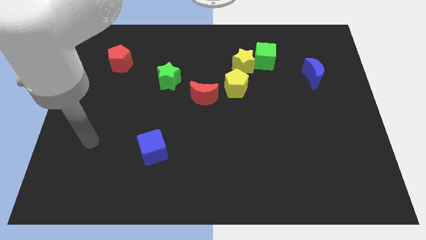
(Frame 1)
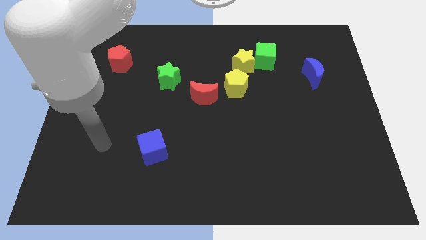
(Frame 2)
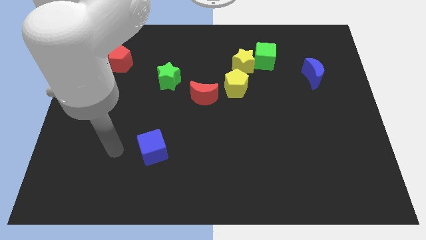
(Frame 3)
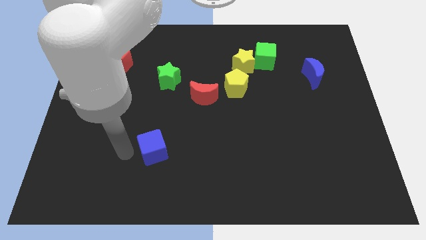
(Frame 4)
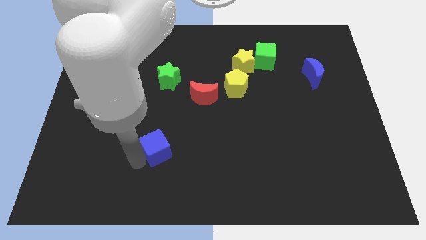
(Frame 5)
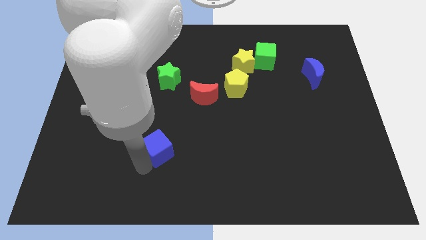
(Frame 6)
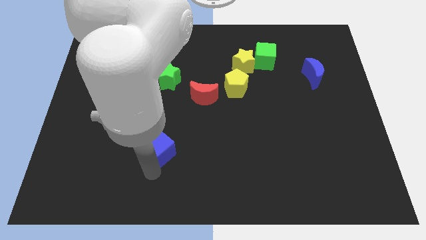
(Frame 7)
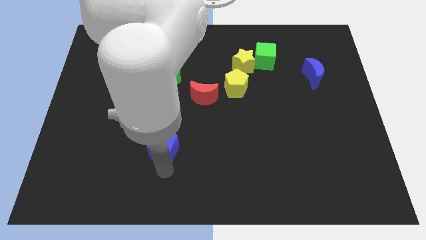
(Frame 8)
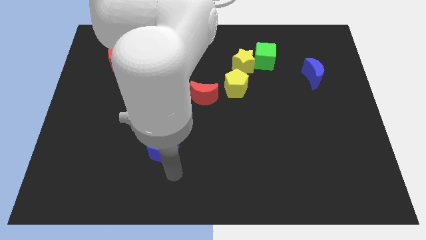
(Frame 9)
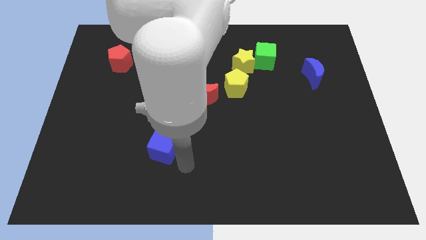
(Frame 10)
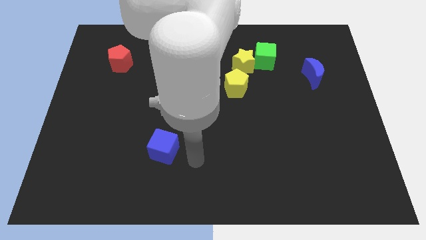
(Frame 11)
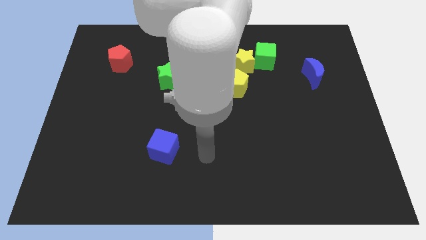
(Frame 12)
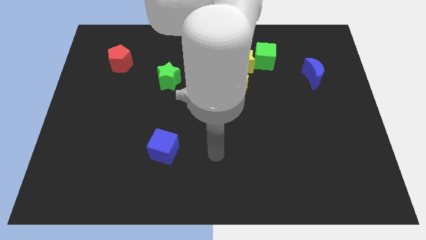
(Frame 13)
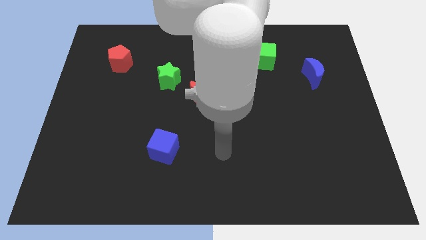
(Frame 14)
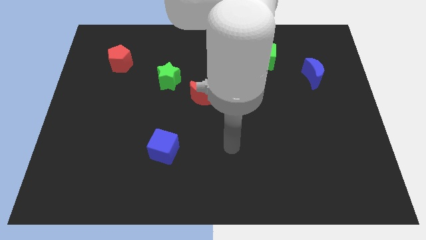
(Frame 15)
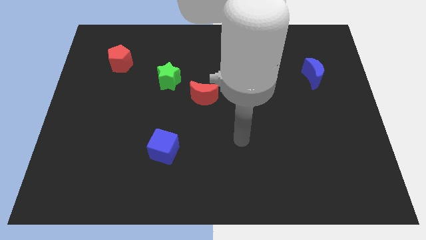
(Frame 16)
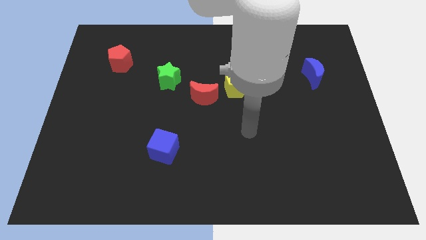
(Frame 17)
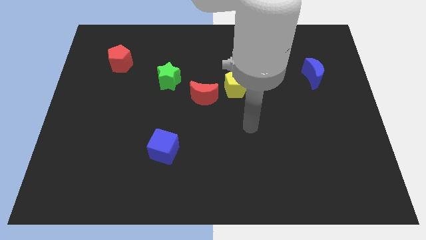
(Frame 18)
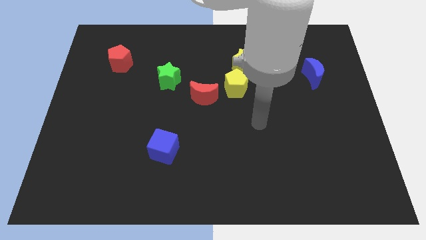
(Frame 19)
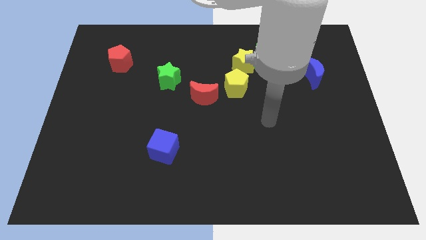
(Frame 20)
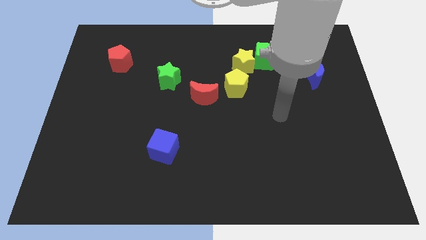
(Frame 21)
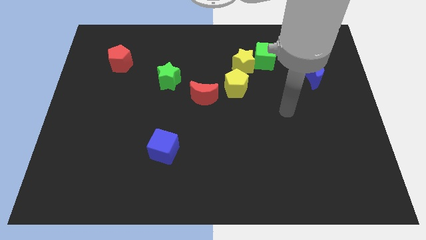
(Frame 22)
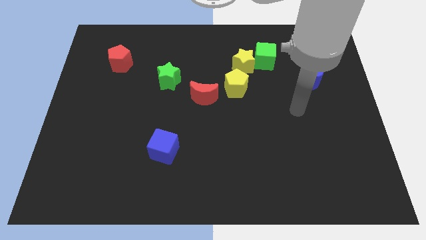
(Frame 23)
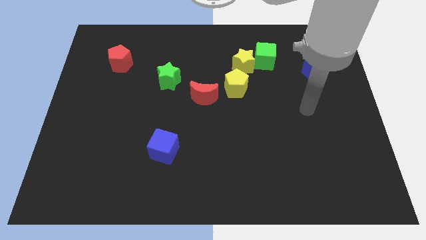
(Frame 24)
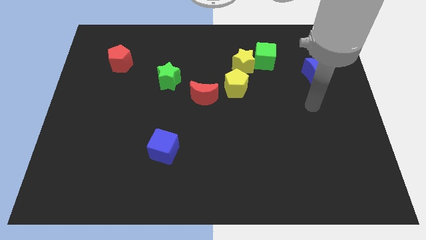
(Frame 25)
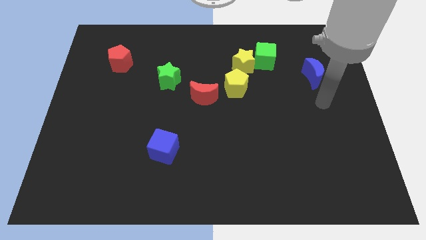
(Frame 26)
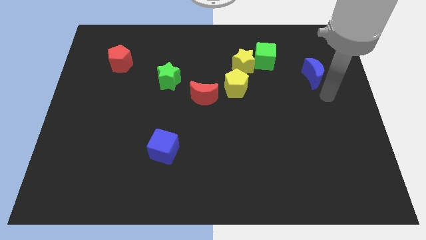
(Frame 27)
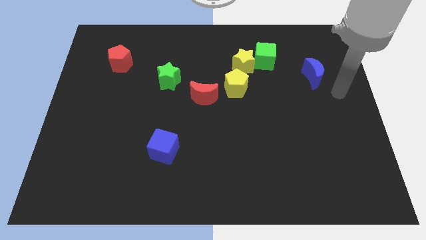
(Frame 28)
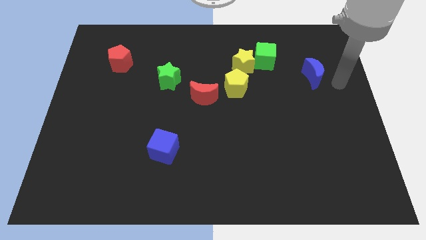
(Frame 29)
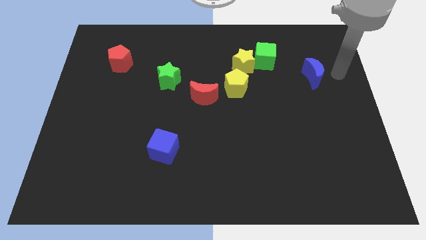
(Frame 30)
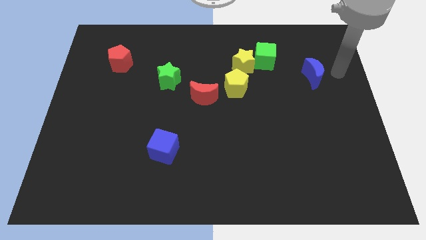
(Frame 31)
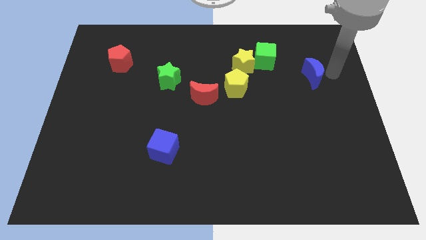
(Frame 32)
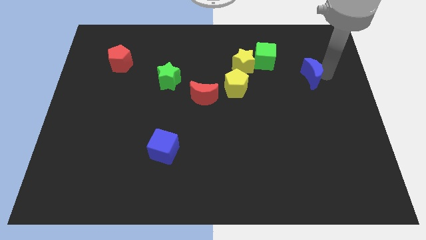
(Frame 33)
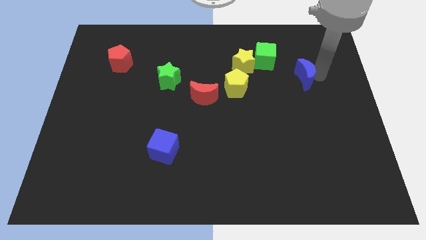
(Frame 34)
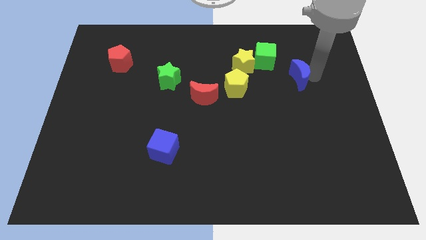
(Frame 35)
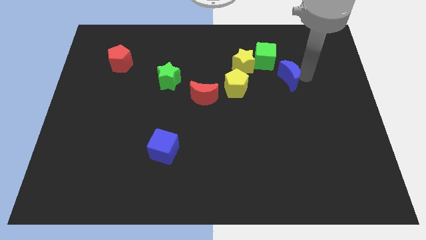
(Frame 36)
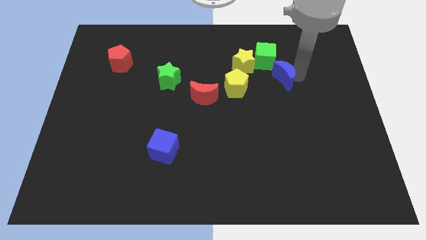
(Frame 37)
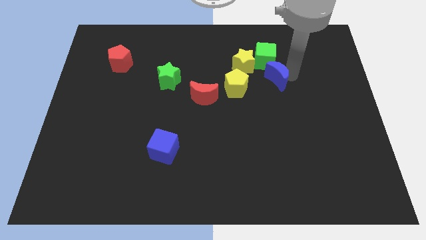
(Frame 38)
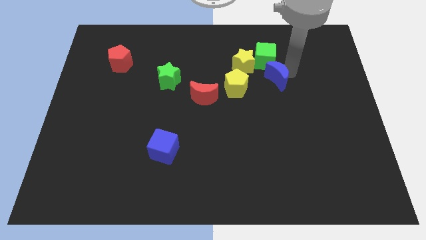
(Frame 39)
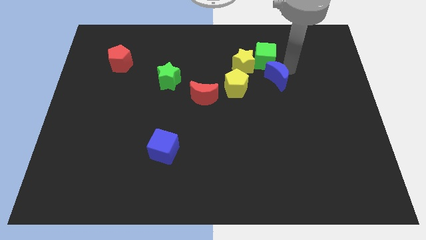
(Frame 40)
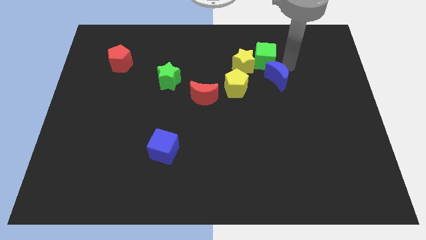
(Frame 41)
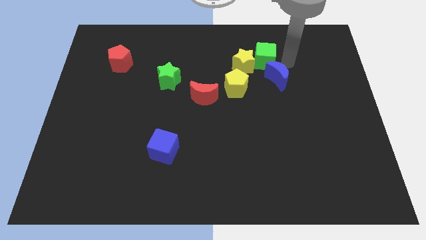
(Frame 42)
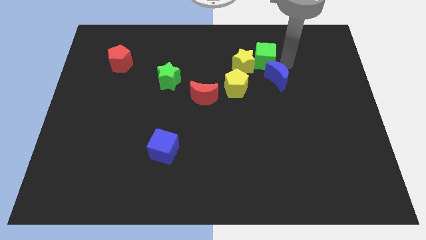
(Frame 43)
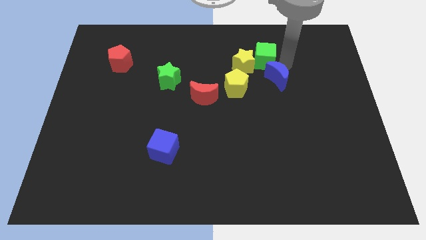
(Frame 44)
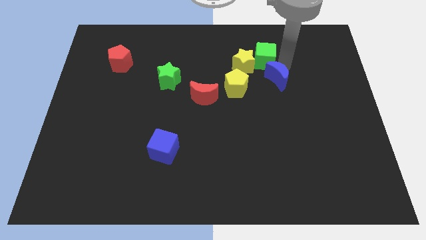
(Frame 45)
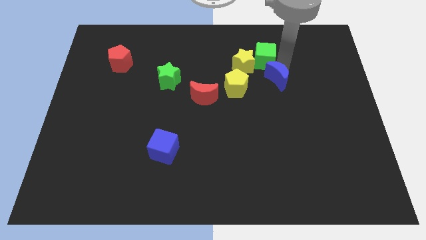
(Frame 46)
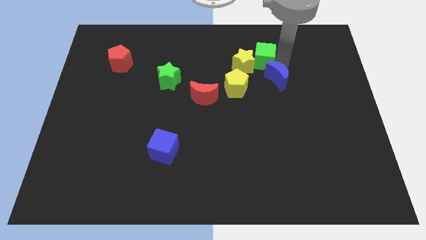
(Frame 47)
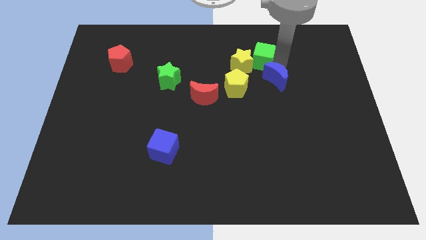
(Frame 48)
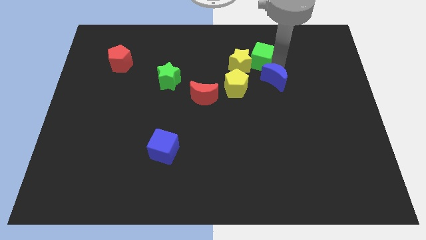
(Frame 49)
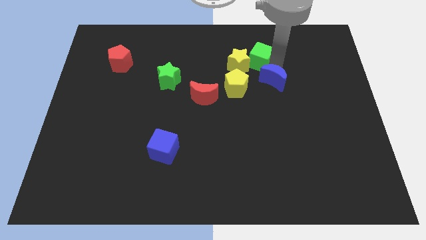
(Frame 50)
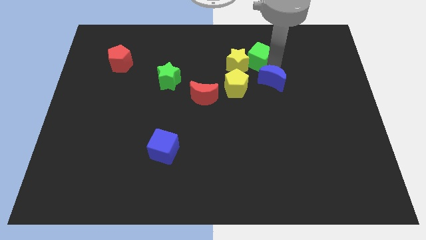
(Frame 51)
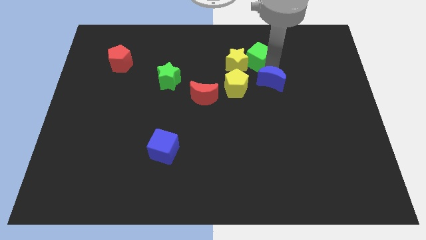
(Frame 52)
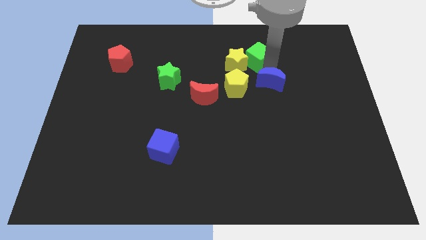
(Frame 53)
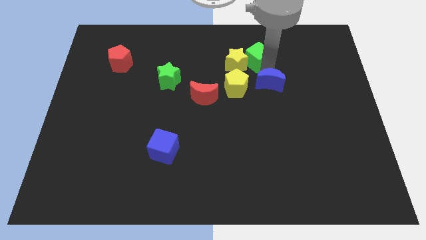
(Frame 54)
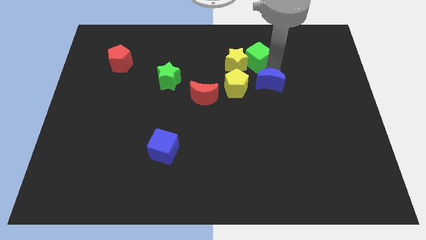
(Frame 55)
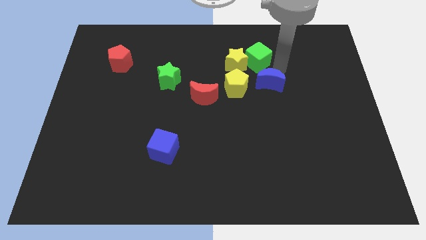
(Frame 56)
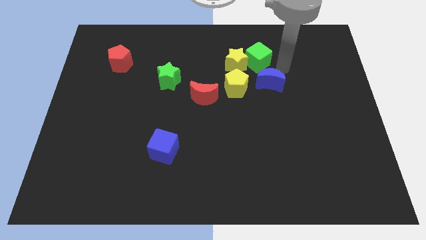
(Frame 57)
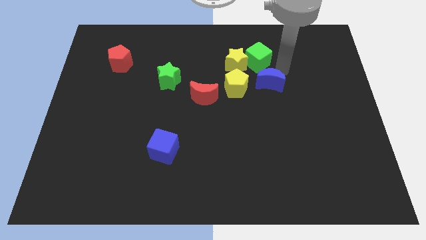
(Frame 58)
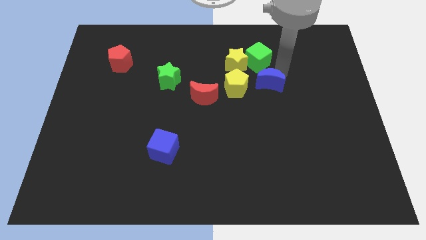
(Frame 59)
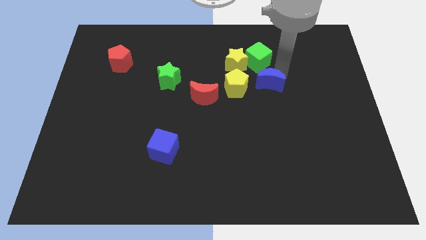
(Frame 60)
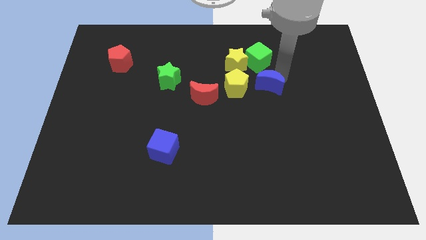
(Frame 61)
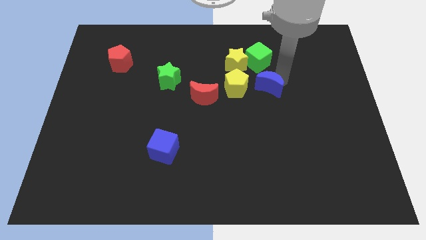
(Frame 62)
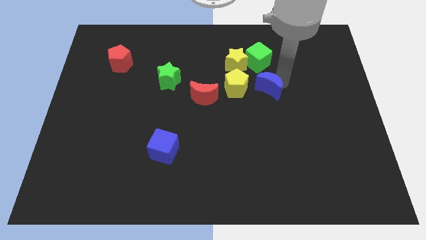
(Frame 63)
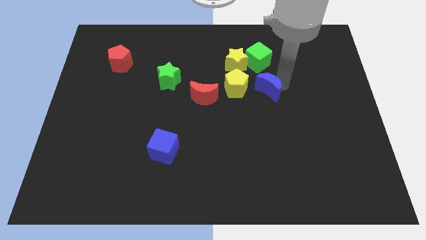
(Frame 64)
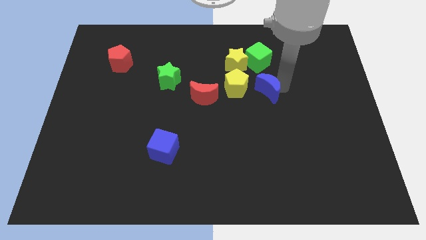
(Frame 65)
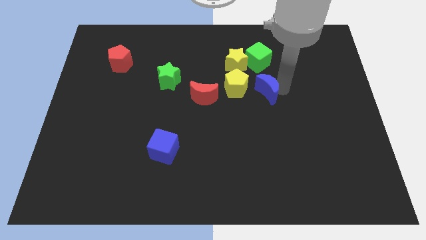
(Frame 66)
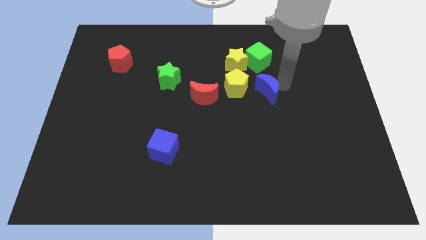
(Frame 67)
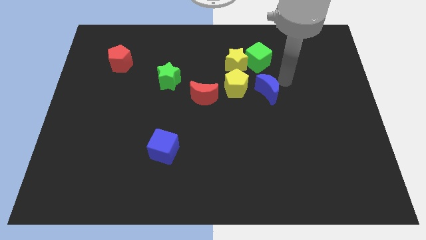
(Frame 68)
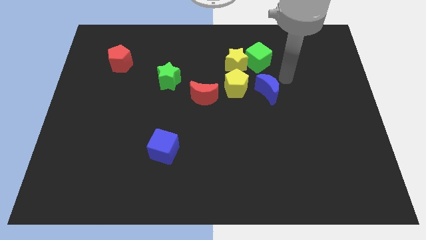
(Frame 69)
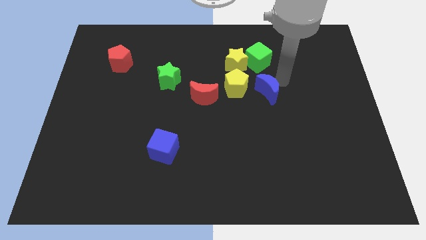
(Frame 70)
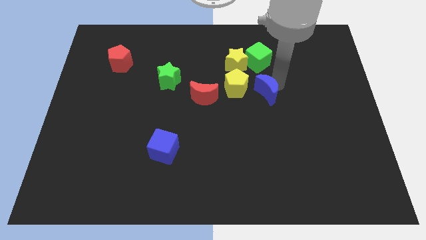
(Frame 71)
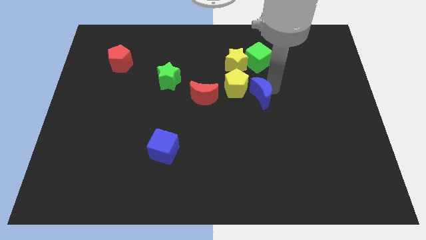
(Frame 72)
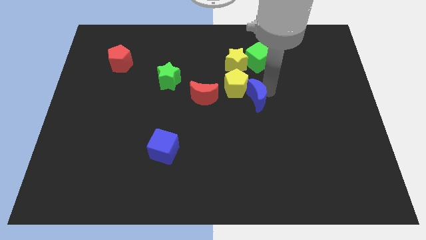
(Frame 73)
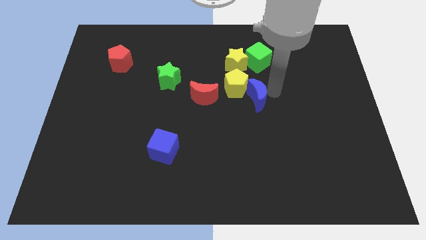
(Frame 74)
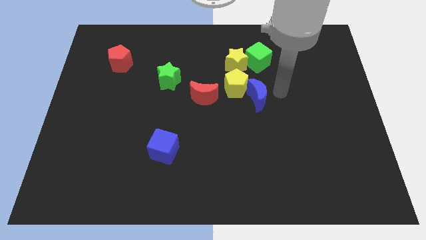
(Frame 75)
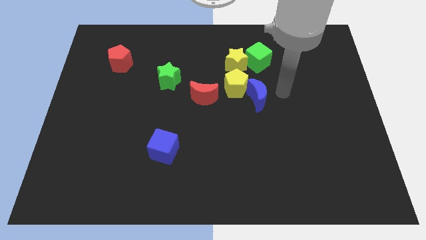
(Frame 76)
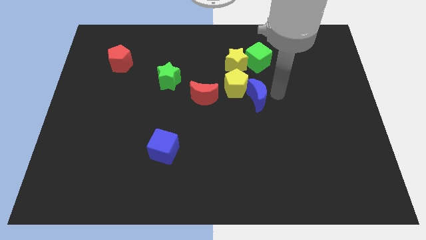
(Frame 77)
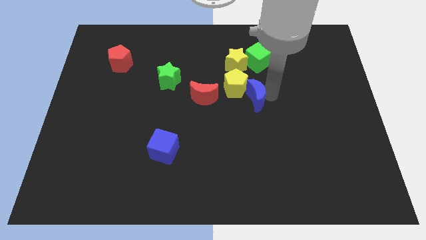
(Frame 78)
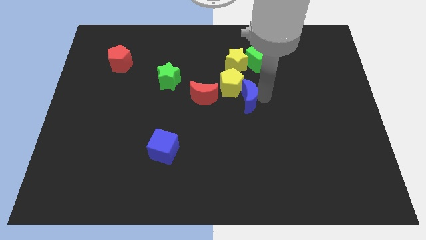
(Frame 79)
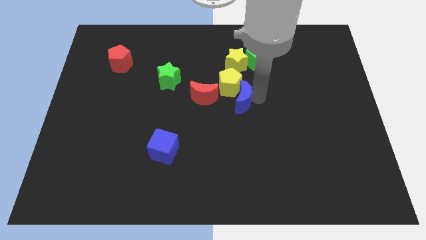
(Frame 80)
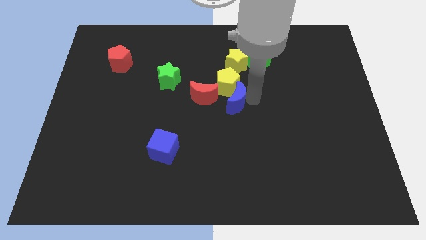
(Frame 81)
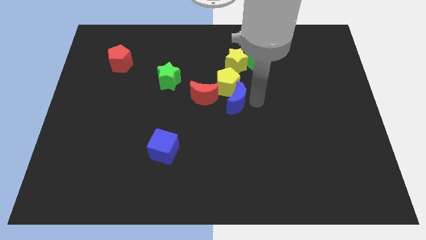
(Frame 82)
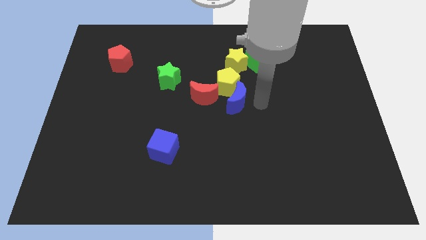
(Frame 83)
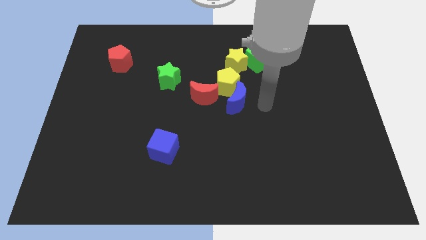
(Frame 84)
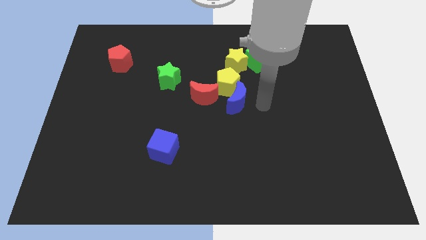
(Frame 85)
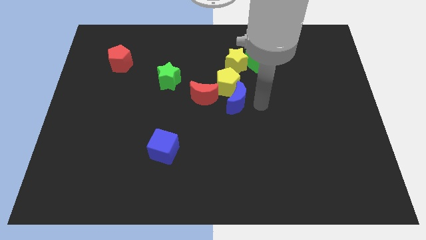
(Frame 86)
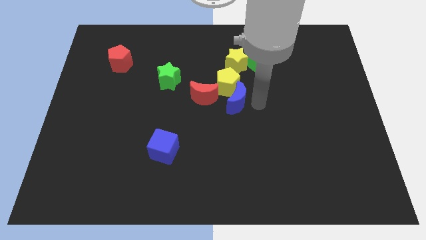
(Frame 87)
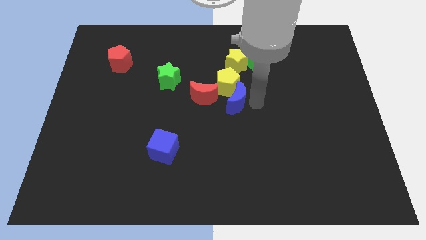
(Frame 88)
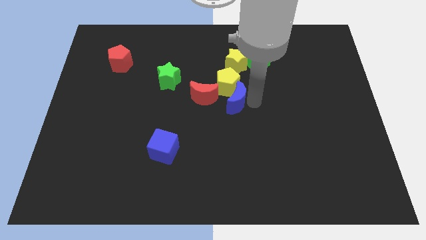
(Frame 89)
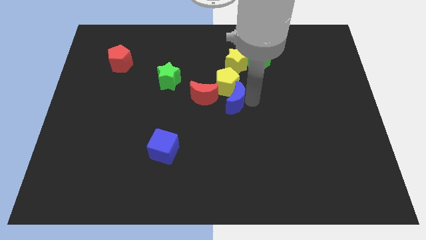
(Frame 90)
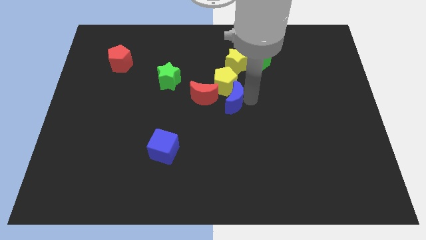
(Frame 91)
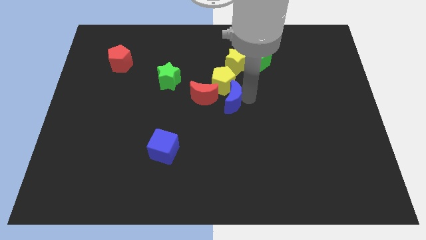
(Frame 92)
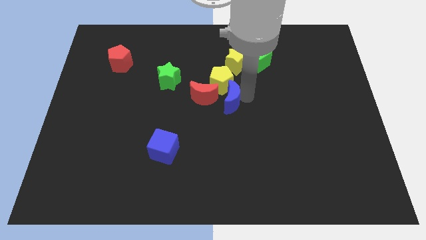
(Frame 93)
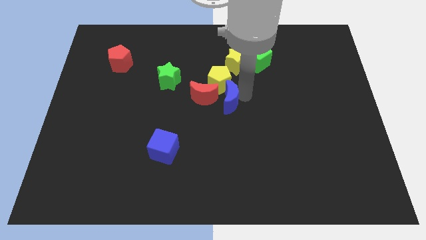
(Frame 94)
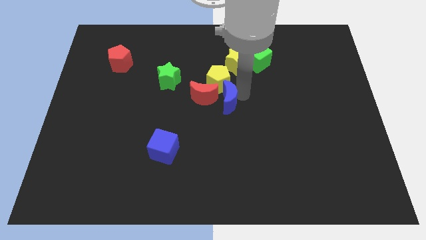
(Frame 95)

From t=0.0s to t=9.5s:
move the blue moon next to the red moon
